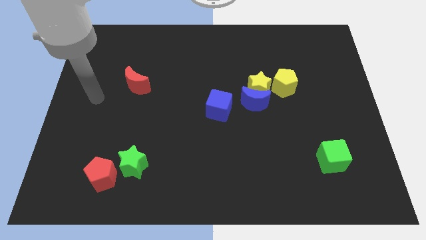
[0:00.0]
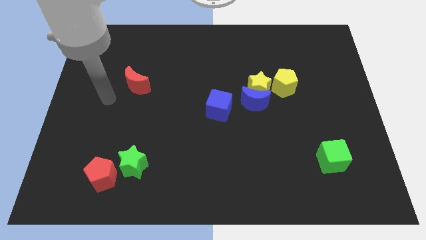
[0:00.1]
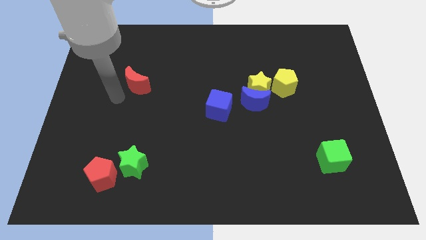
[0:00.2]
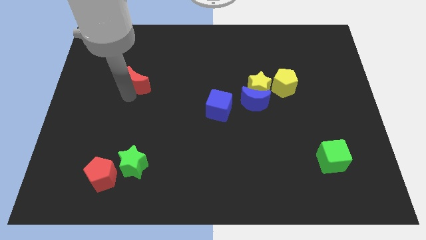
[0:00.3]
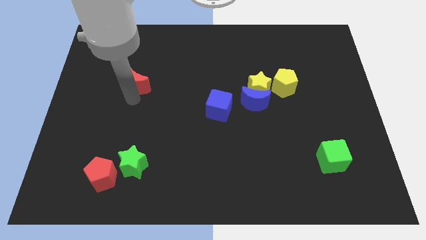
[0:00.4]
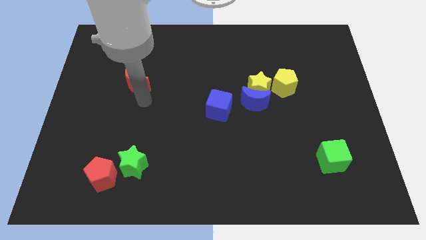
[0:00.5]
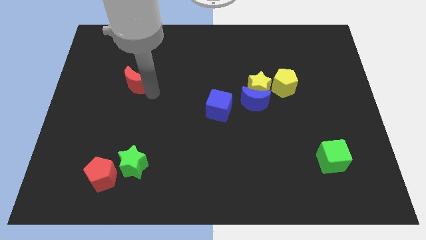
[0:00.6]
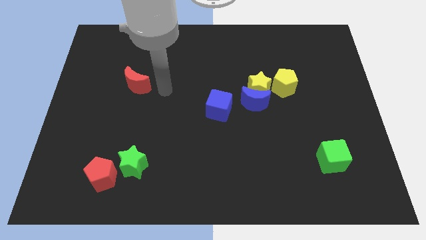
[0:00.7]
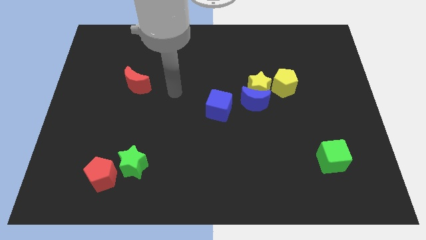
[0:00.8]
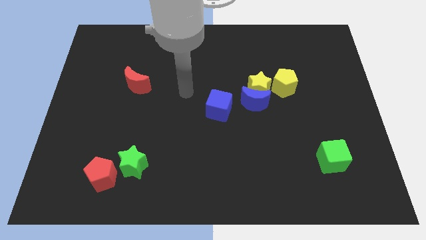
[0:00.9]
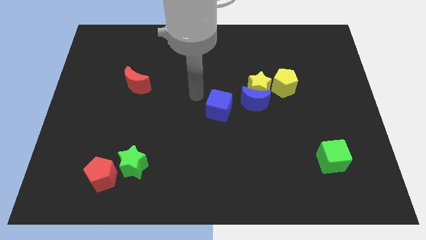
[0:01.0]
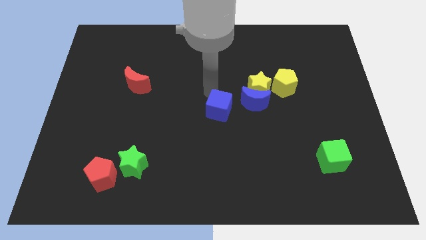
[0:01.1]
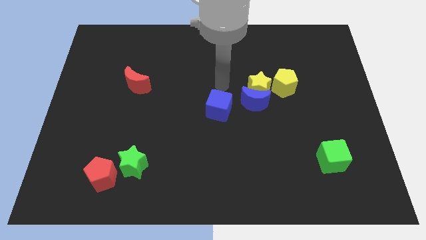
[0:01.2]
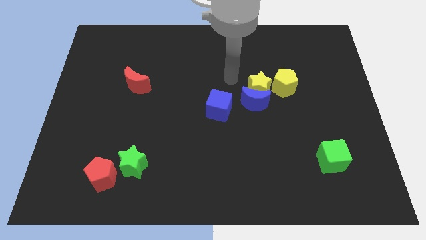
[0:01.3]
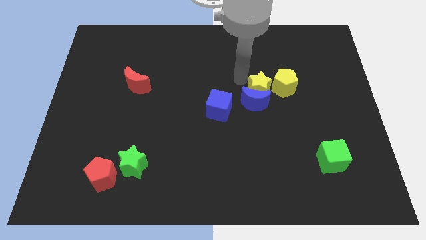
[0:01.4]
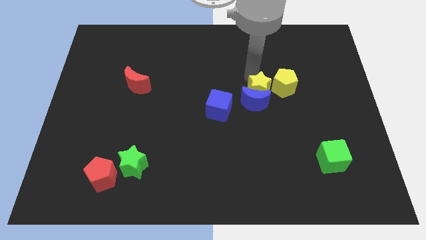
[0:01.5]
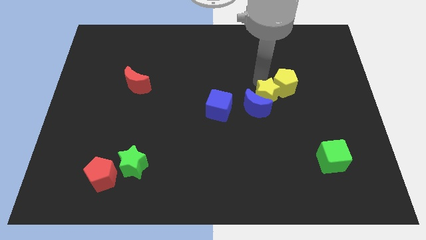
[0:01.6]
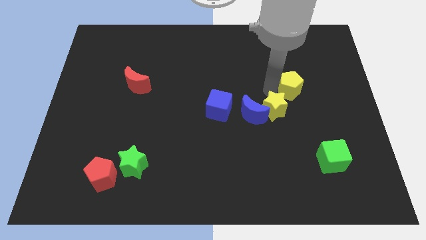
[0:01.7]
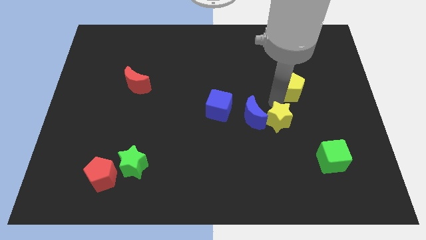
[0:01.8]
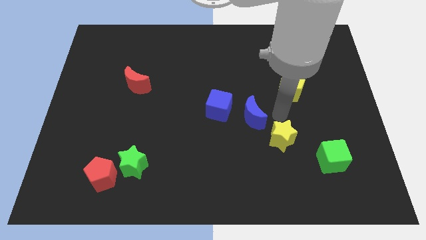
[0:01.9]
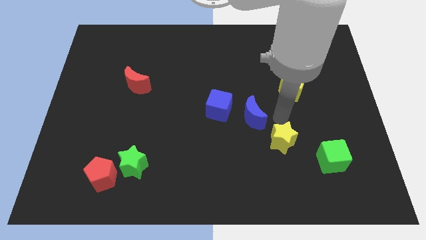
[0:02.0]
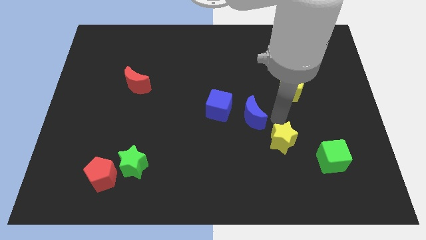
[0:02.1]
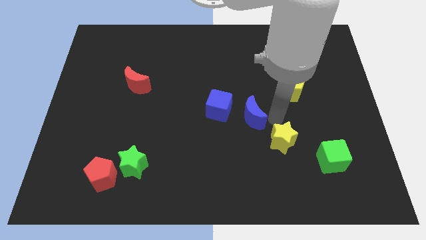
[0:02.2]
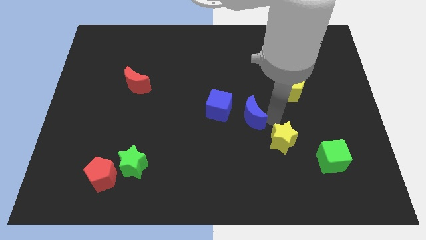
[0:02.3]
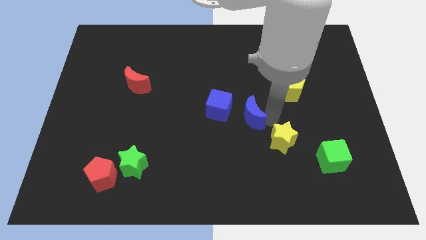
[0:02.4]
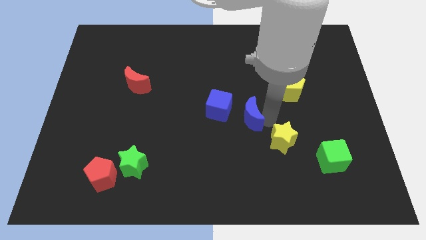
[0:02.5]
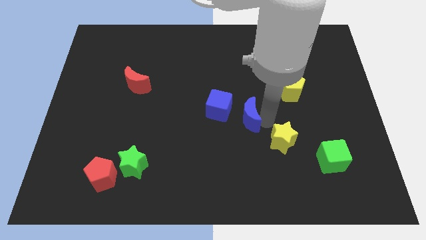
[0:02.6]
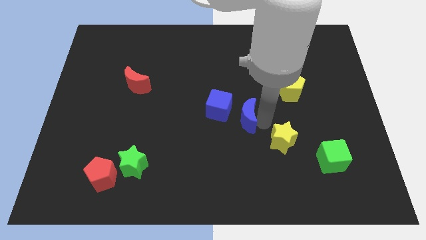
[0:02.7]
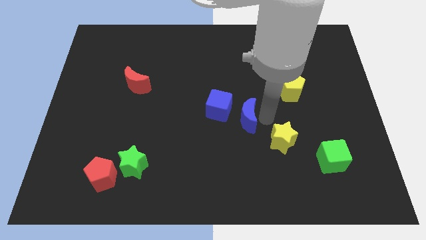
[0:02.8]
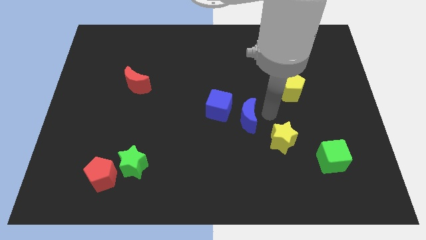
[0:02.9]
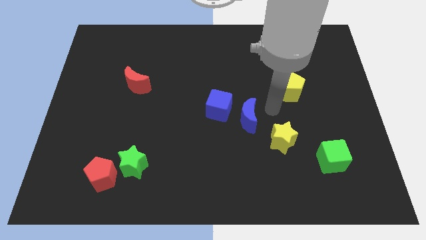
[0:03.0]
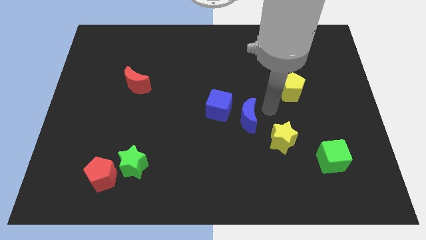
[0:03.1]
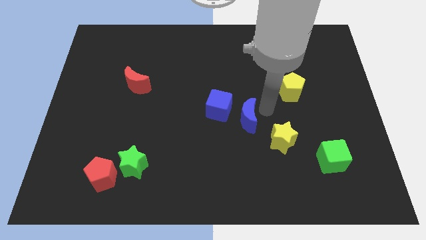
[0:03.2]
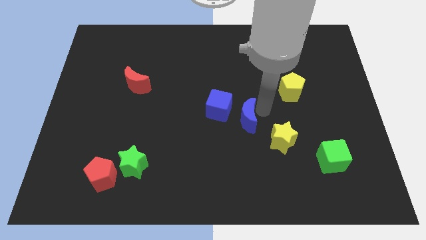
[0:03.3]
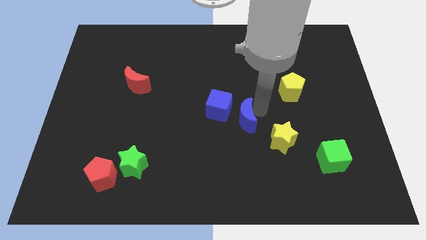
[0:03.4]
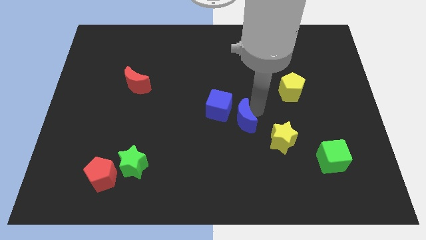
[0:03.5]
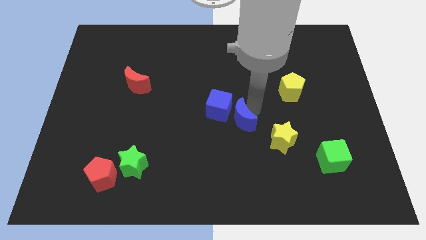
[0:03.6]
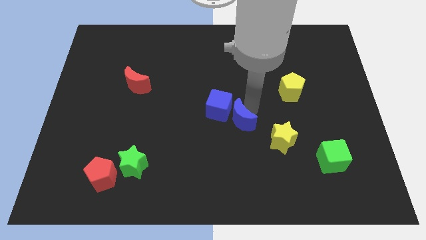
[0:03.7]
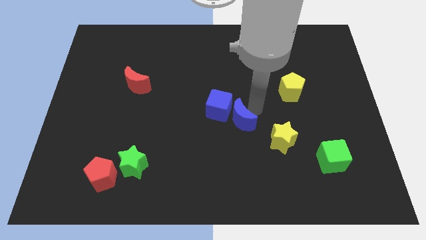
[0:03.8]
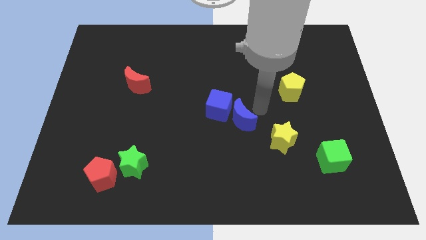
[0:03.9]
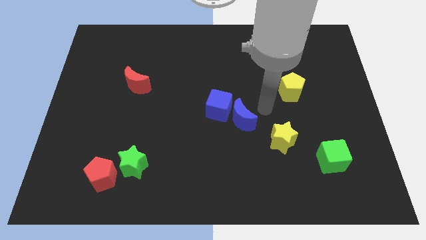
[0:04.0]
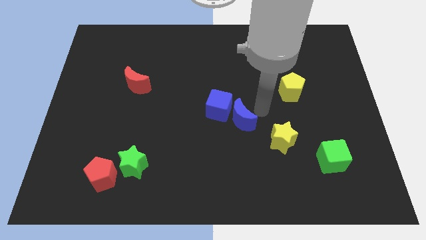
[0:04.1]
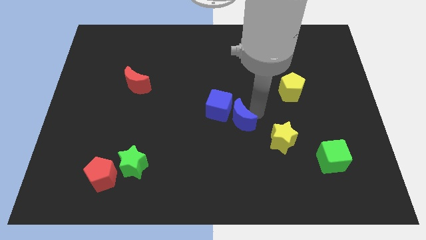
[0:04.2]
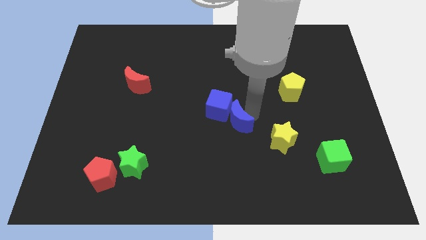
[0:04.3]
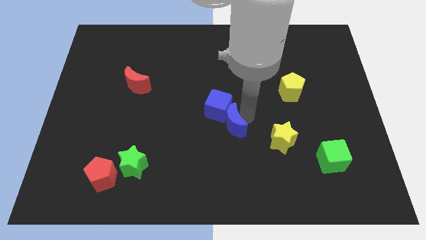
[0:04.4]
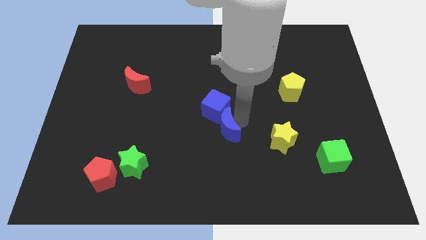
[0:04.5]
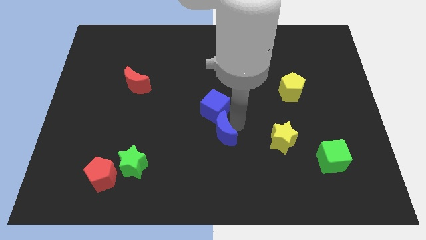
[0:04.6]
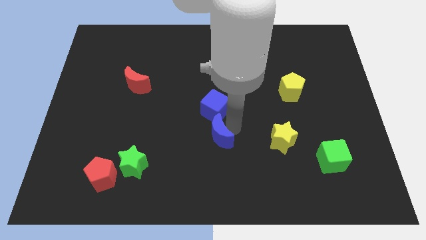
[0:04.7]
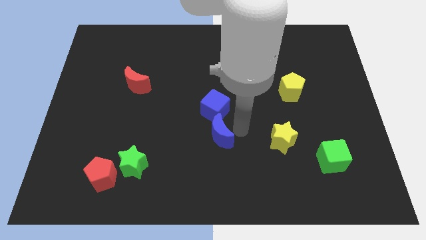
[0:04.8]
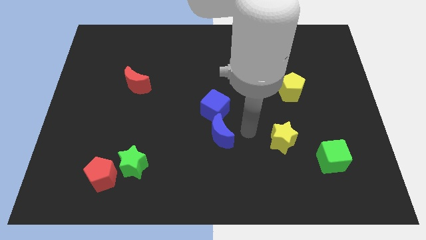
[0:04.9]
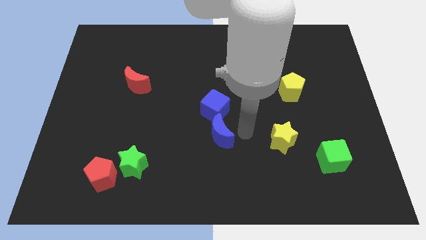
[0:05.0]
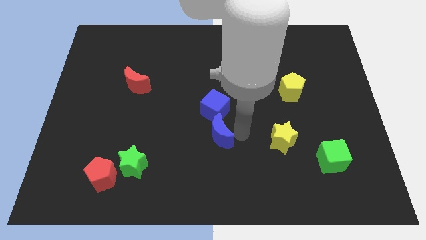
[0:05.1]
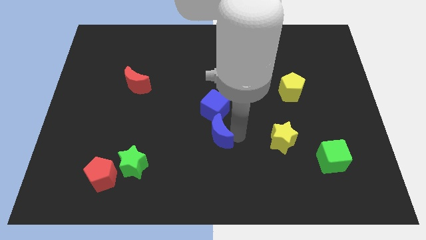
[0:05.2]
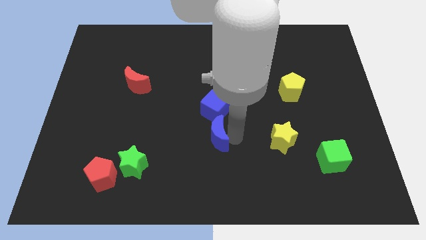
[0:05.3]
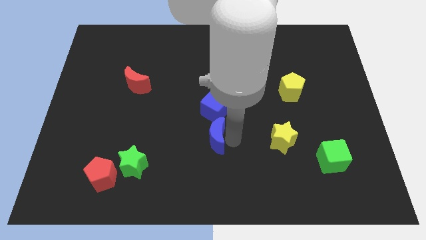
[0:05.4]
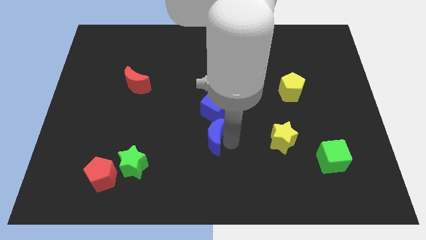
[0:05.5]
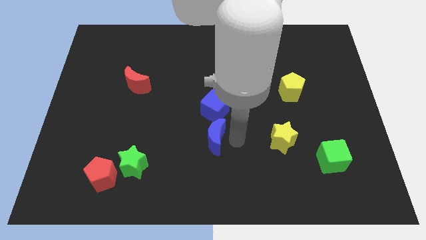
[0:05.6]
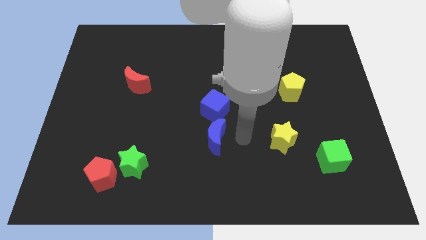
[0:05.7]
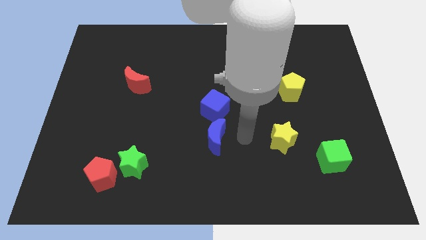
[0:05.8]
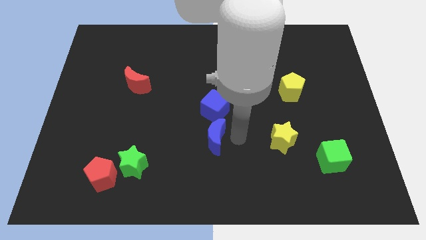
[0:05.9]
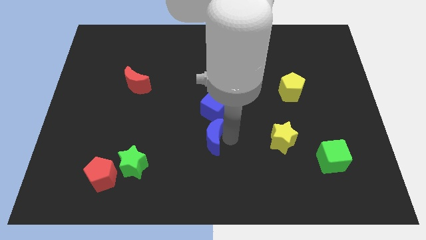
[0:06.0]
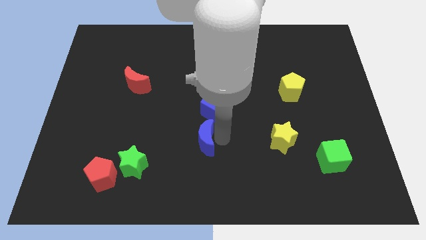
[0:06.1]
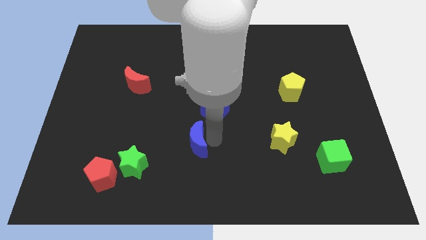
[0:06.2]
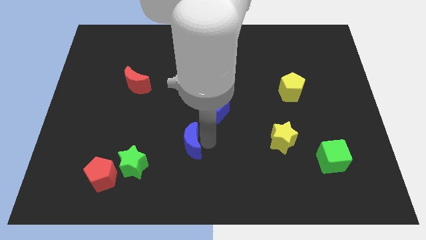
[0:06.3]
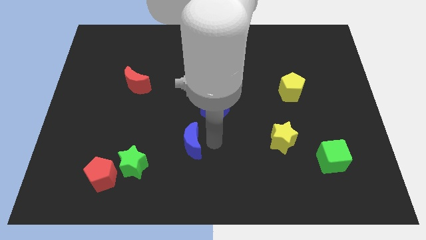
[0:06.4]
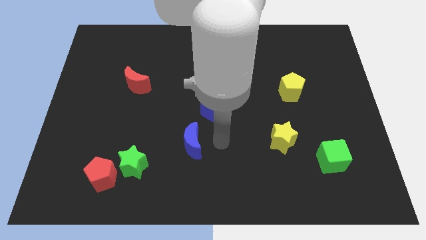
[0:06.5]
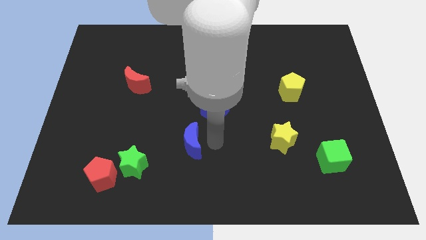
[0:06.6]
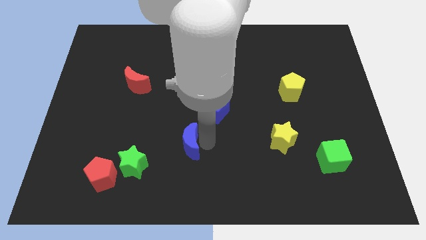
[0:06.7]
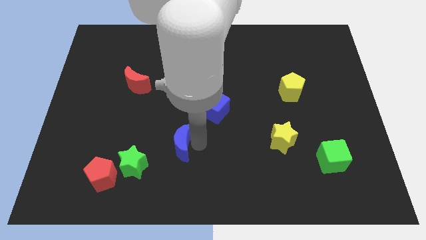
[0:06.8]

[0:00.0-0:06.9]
slide the blue moon diagonally up and to the right of the green star
